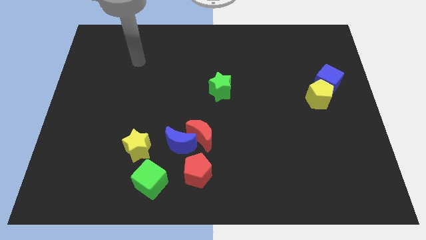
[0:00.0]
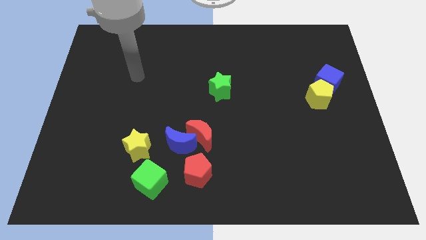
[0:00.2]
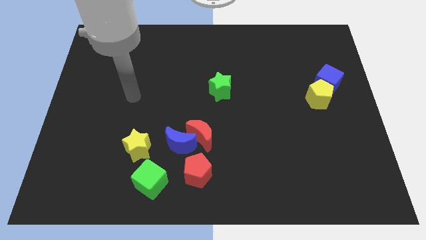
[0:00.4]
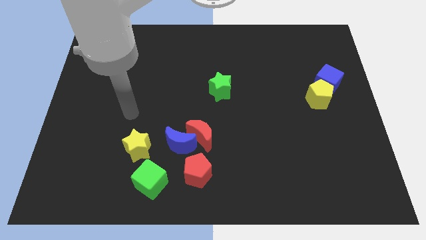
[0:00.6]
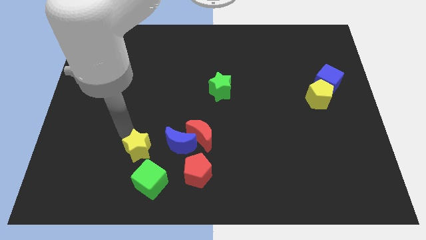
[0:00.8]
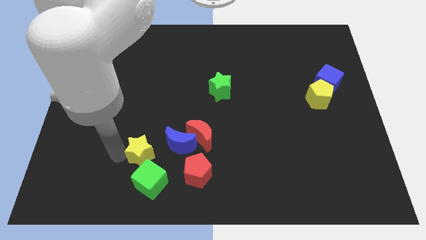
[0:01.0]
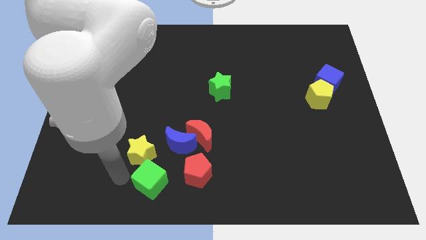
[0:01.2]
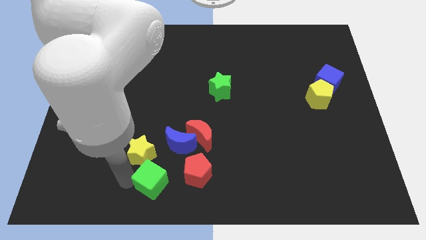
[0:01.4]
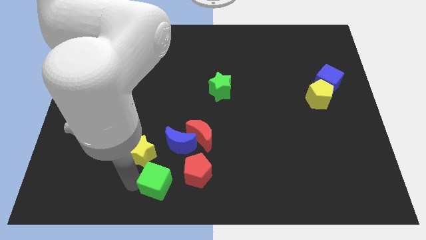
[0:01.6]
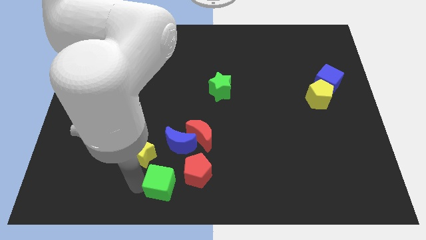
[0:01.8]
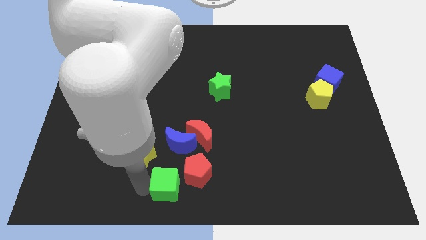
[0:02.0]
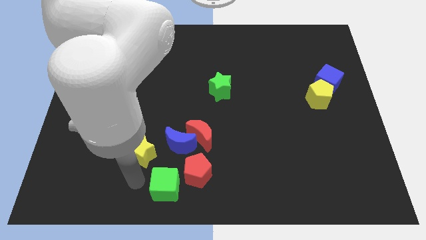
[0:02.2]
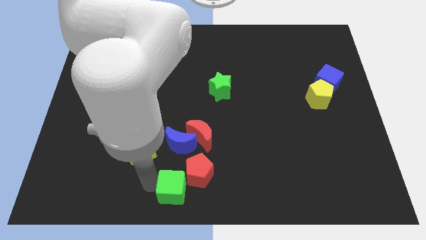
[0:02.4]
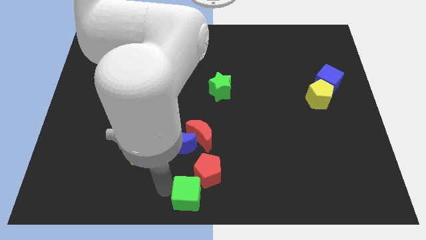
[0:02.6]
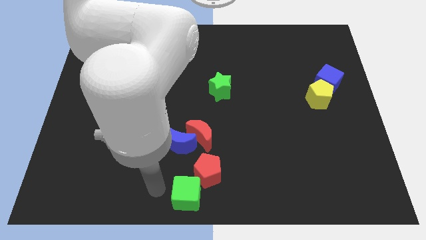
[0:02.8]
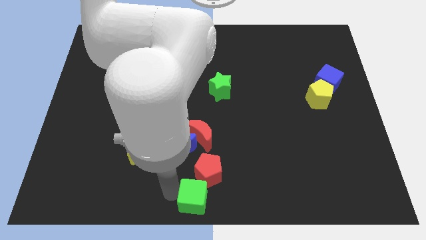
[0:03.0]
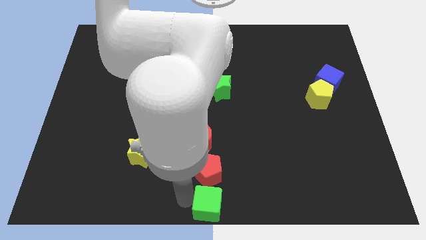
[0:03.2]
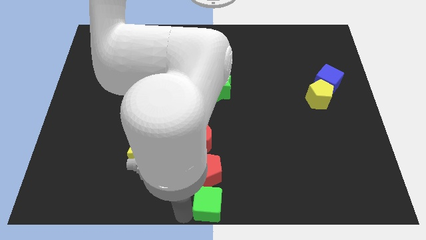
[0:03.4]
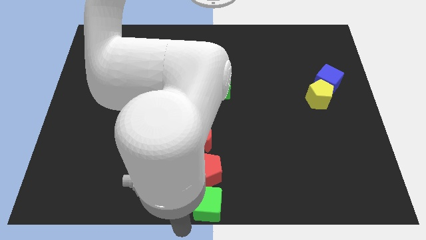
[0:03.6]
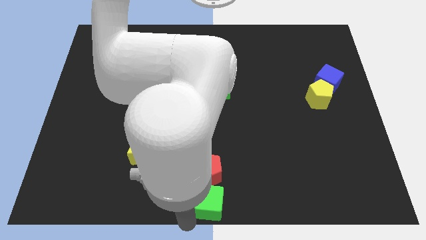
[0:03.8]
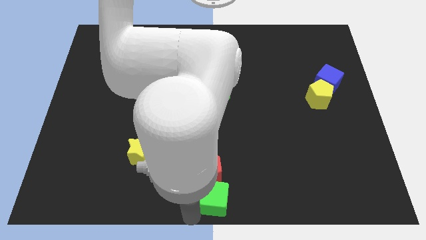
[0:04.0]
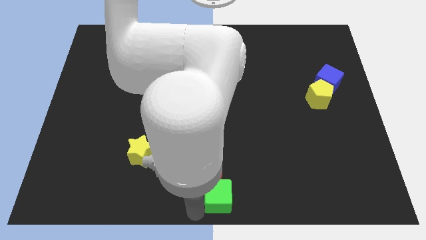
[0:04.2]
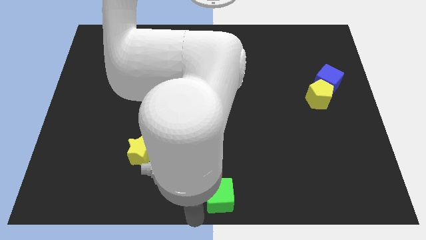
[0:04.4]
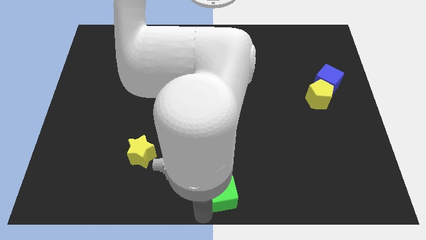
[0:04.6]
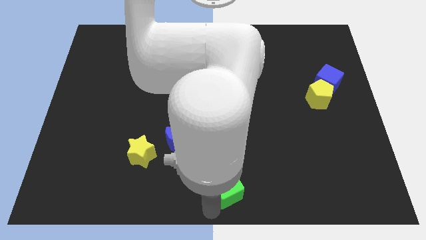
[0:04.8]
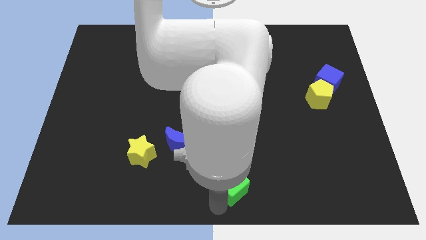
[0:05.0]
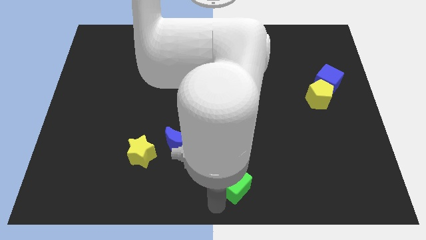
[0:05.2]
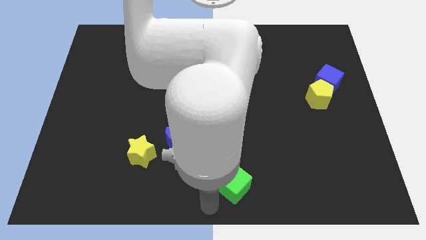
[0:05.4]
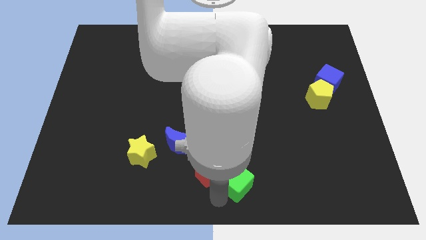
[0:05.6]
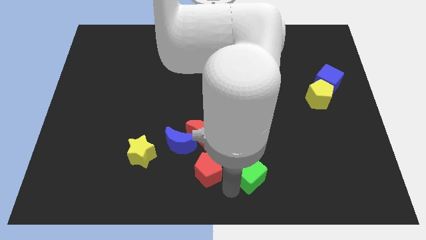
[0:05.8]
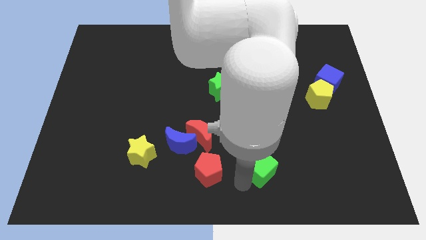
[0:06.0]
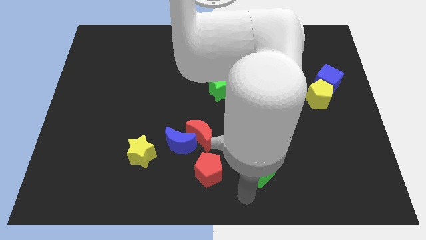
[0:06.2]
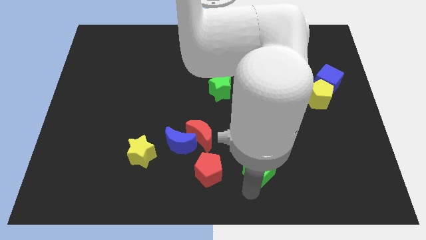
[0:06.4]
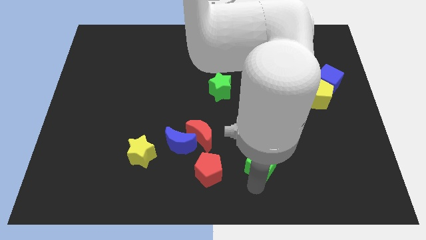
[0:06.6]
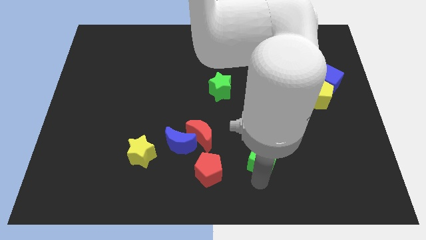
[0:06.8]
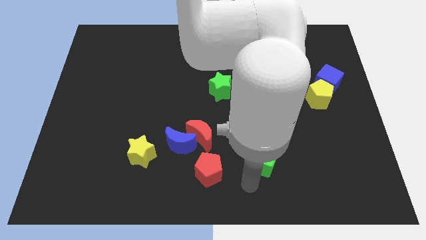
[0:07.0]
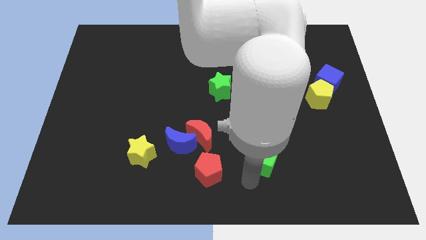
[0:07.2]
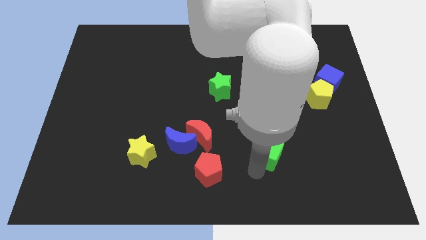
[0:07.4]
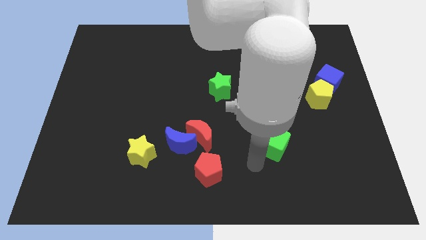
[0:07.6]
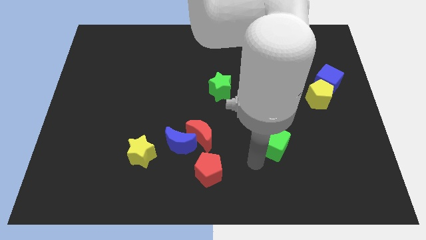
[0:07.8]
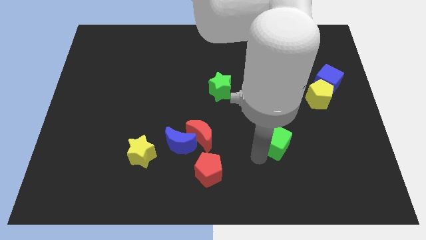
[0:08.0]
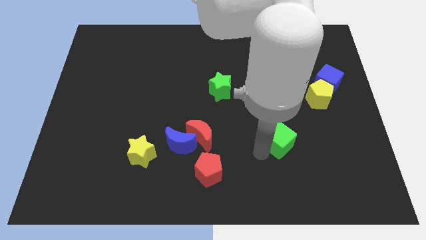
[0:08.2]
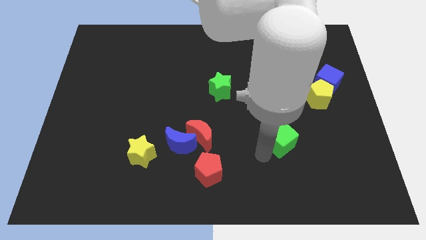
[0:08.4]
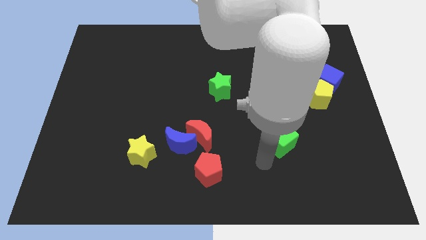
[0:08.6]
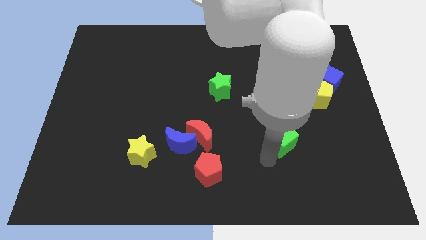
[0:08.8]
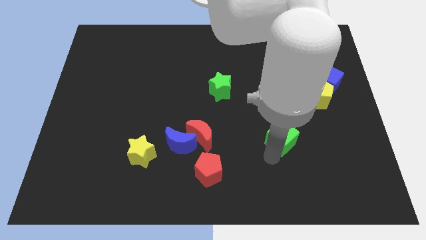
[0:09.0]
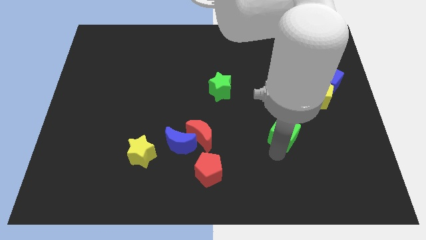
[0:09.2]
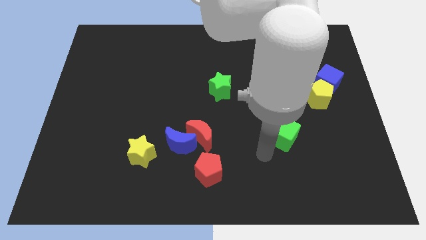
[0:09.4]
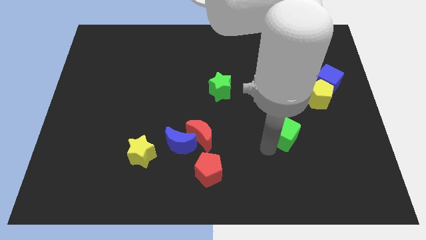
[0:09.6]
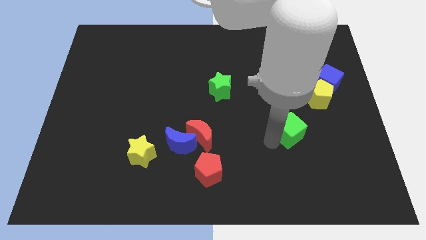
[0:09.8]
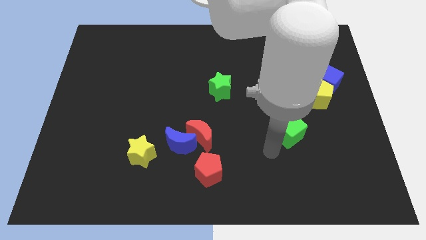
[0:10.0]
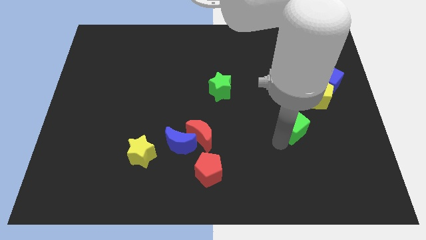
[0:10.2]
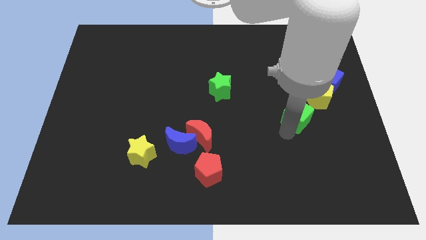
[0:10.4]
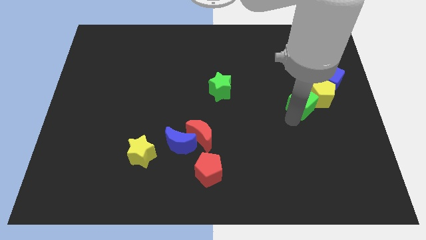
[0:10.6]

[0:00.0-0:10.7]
slide the green cube to the yellow pentagon

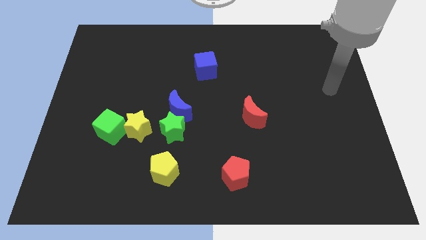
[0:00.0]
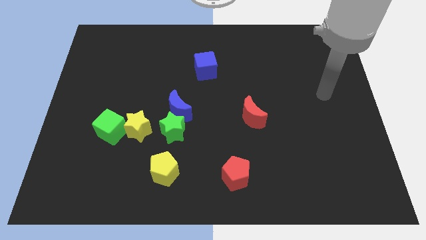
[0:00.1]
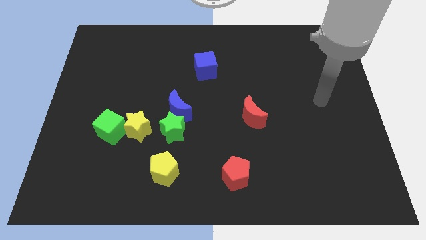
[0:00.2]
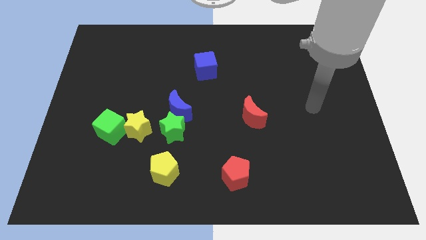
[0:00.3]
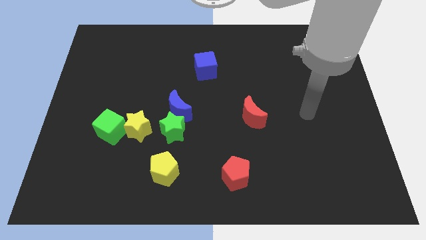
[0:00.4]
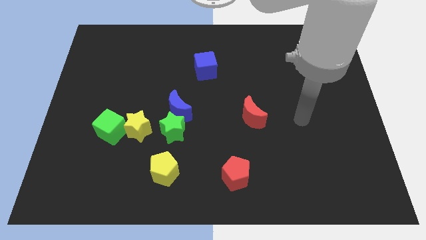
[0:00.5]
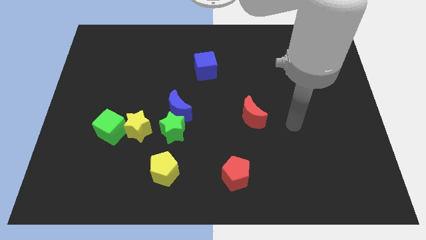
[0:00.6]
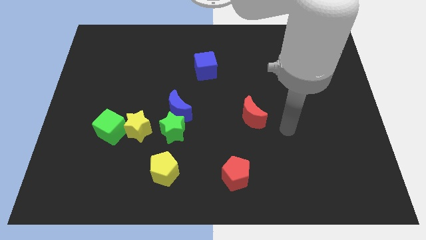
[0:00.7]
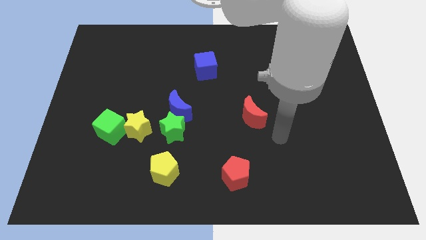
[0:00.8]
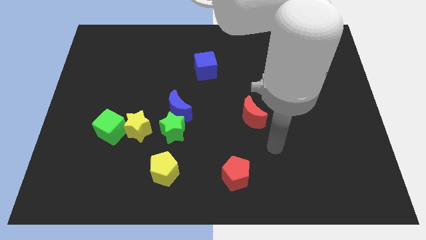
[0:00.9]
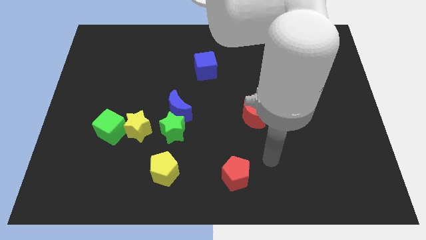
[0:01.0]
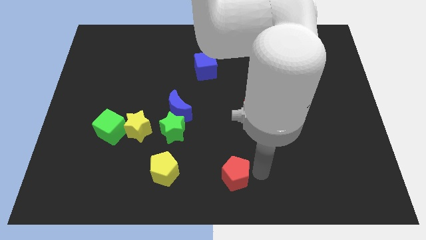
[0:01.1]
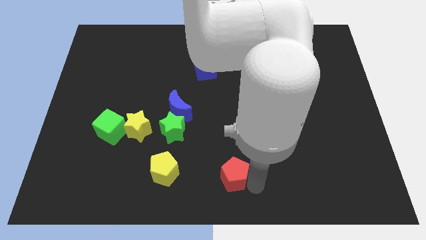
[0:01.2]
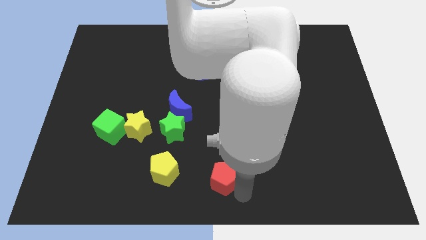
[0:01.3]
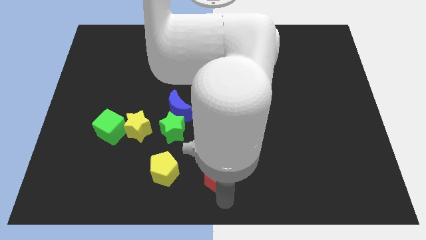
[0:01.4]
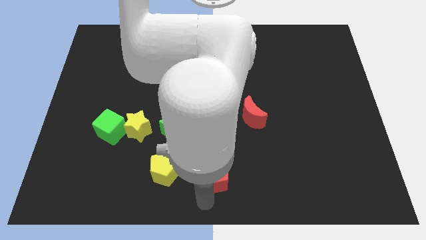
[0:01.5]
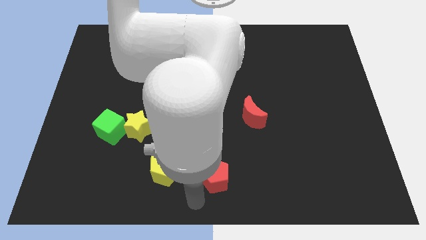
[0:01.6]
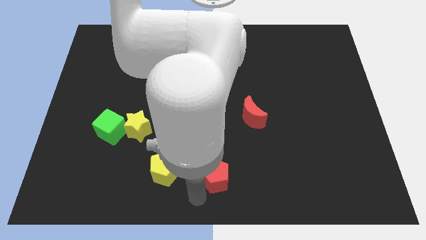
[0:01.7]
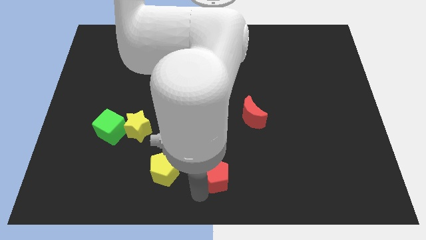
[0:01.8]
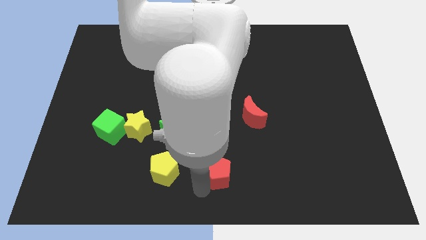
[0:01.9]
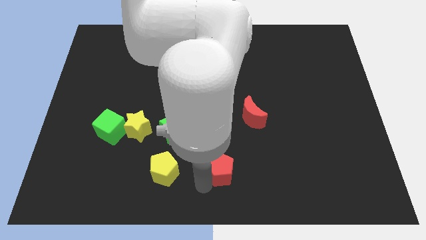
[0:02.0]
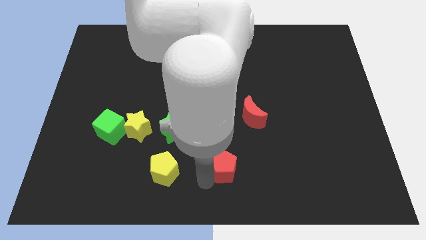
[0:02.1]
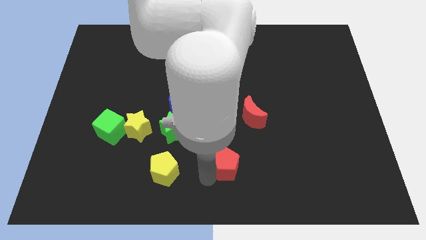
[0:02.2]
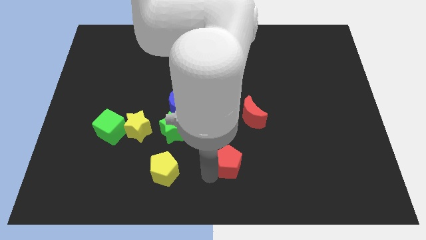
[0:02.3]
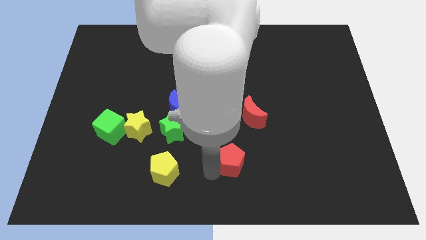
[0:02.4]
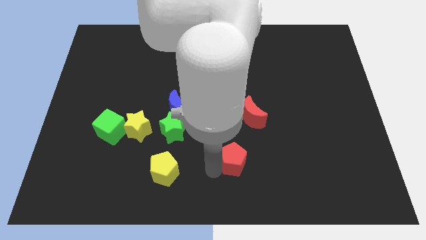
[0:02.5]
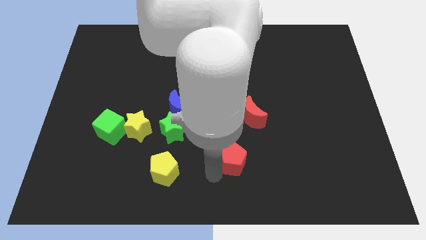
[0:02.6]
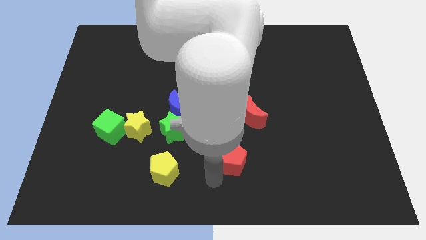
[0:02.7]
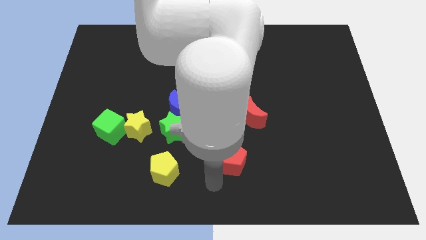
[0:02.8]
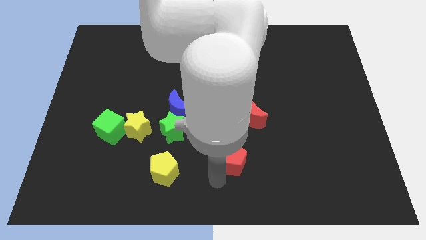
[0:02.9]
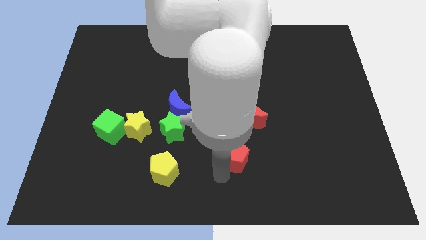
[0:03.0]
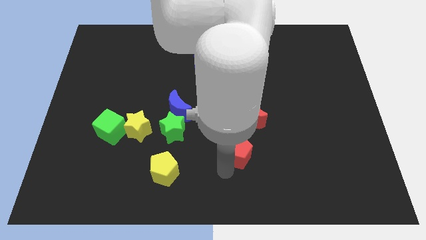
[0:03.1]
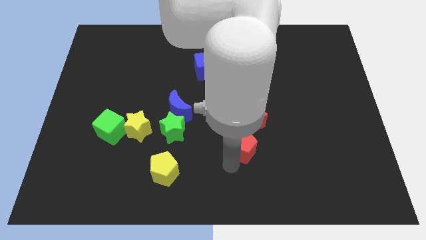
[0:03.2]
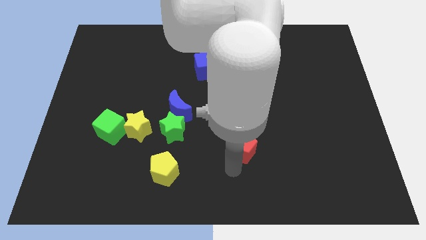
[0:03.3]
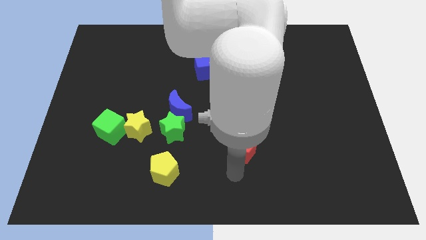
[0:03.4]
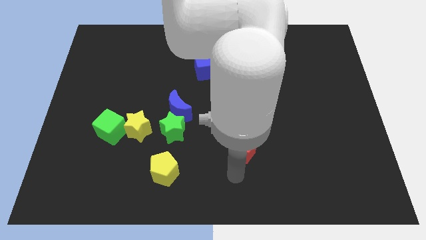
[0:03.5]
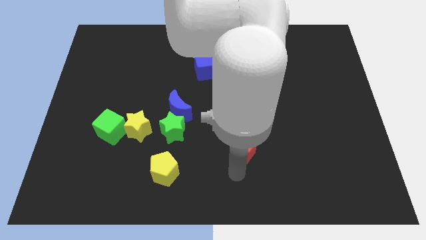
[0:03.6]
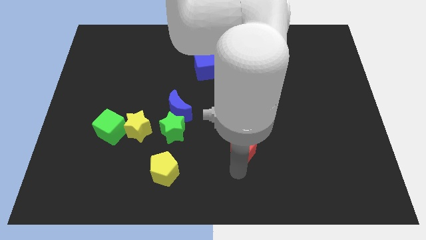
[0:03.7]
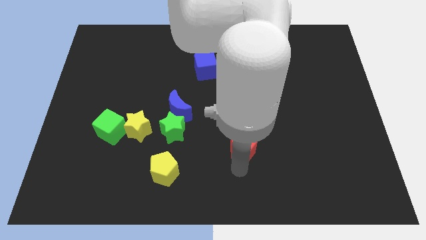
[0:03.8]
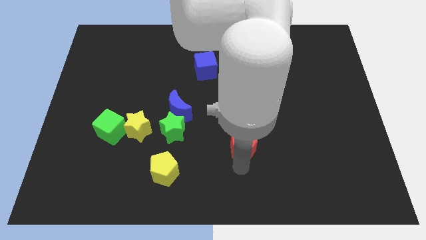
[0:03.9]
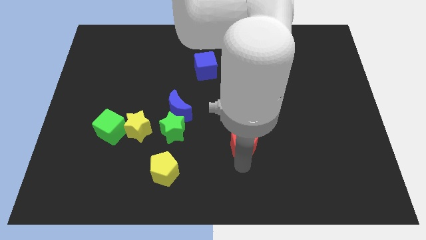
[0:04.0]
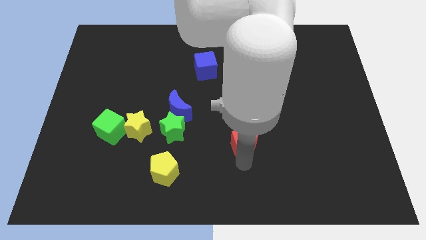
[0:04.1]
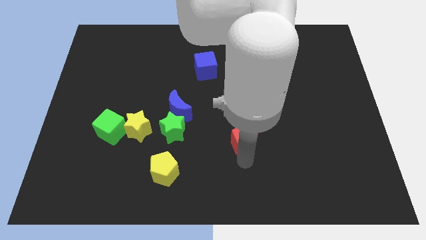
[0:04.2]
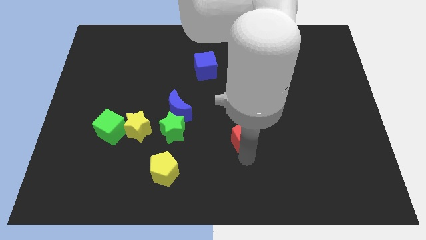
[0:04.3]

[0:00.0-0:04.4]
put the red pentagon next to the red moon
